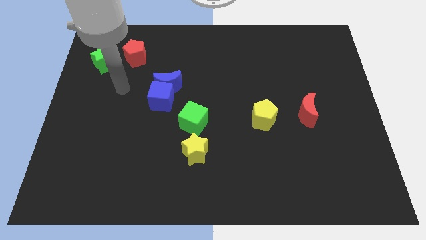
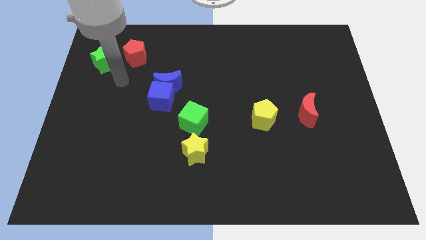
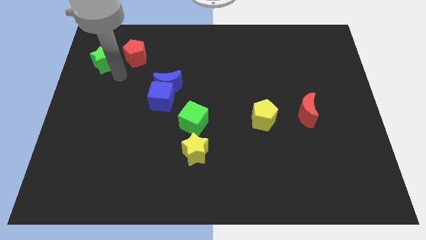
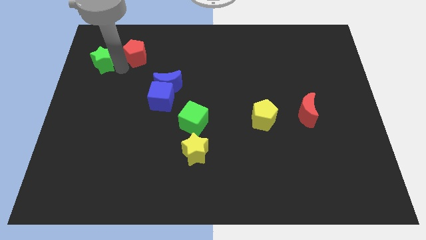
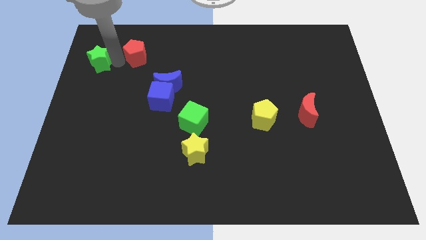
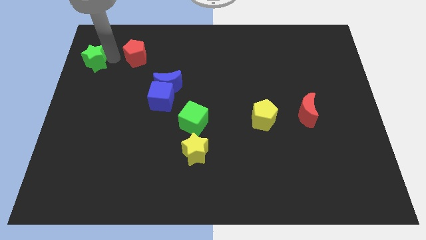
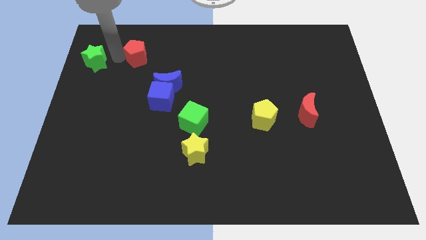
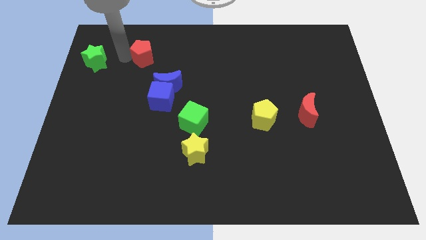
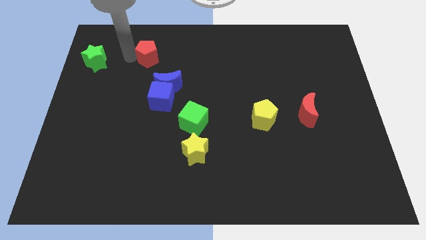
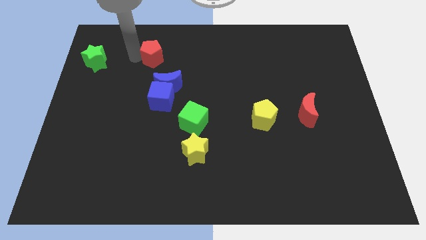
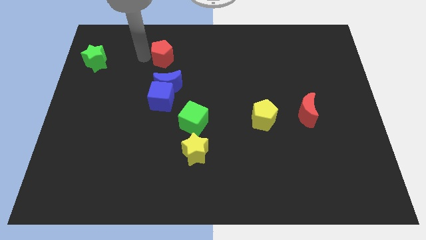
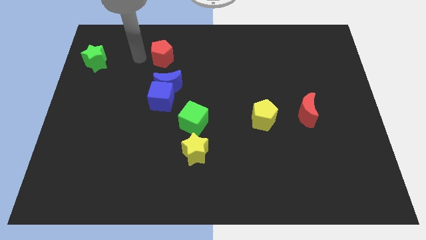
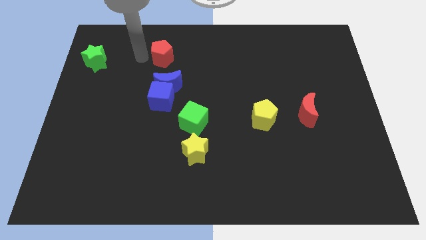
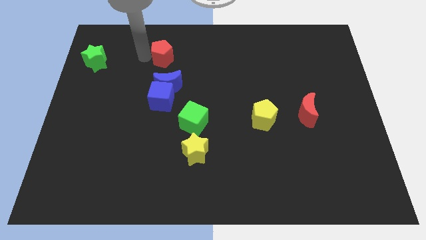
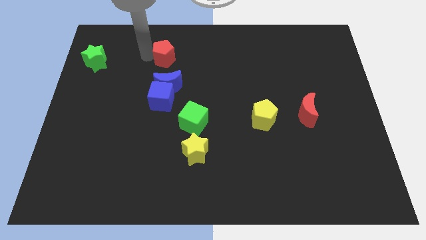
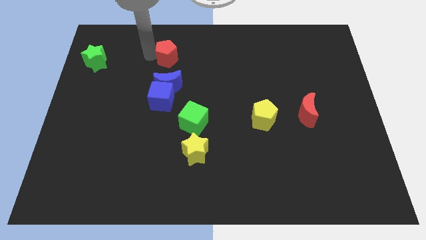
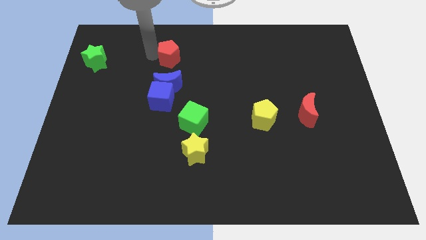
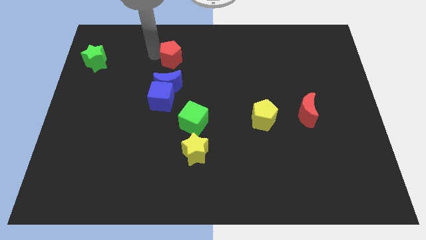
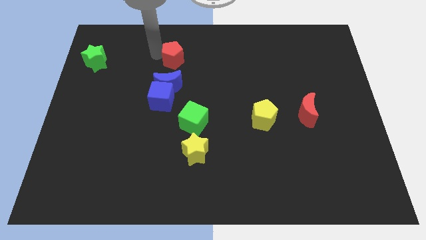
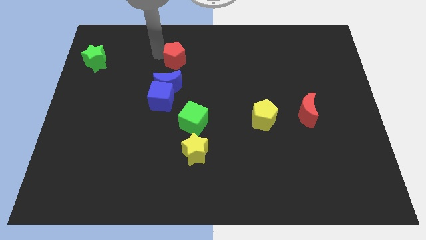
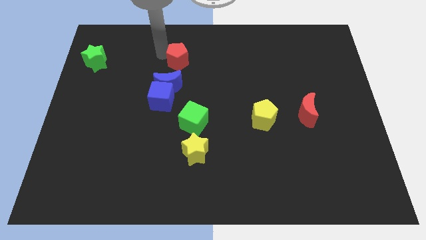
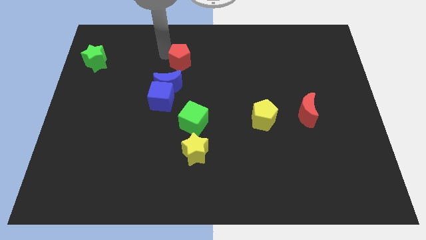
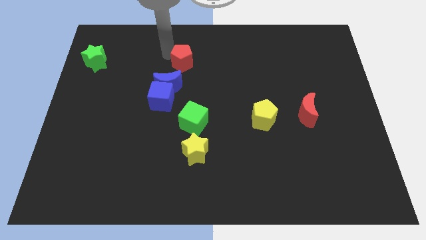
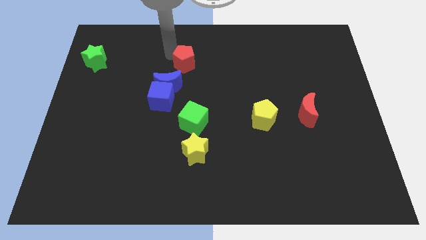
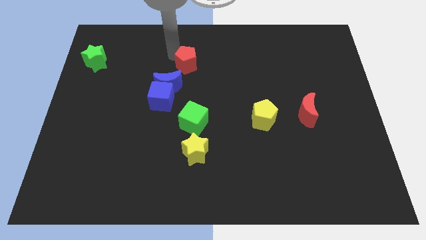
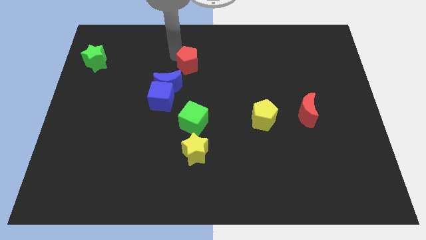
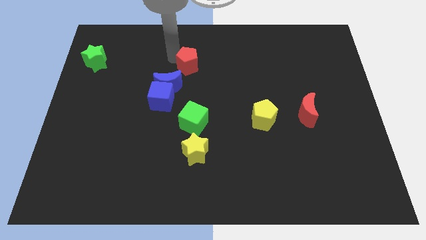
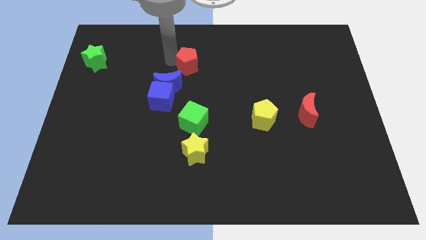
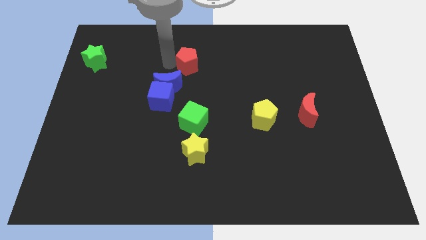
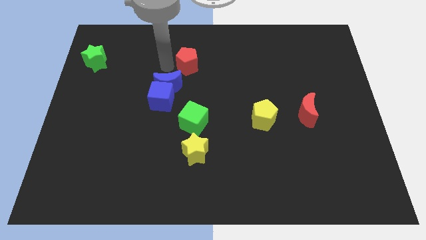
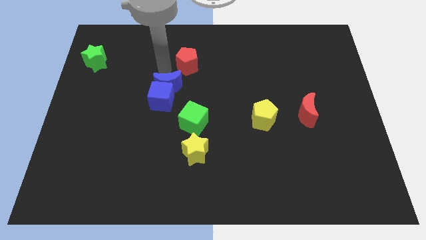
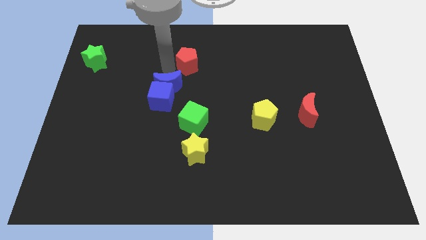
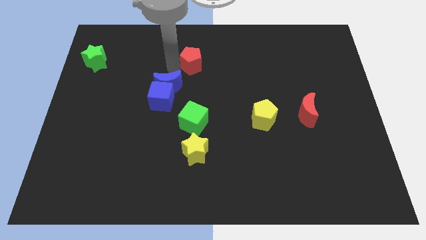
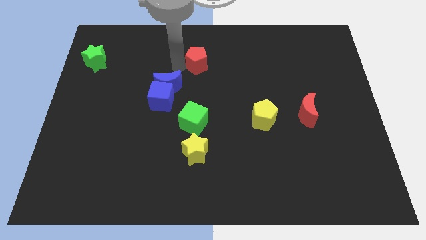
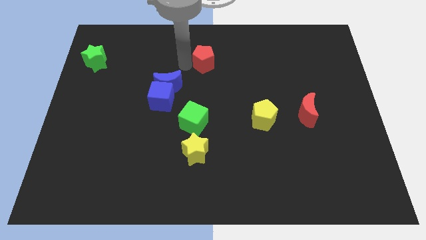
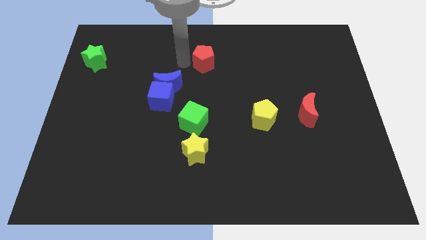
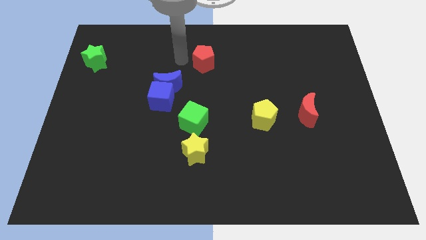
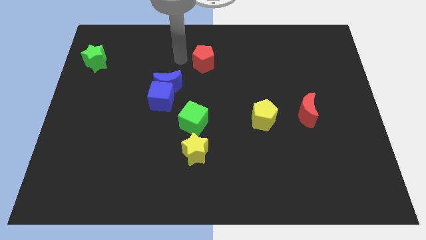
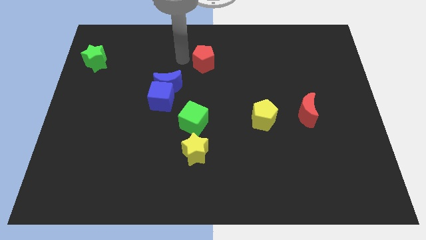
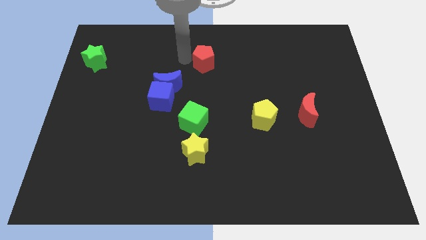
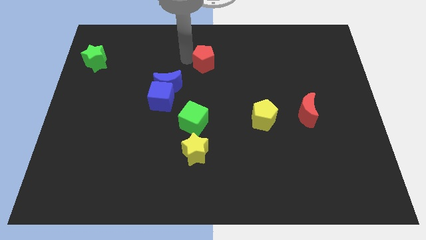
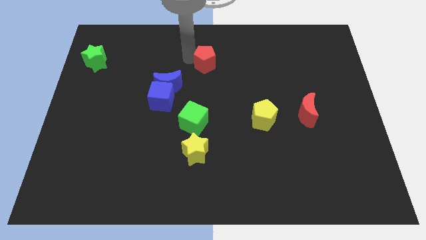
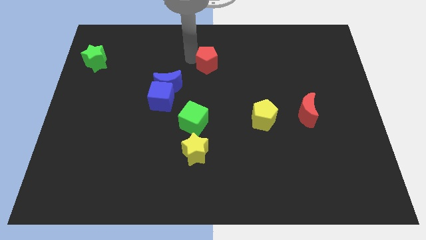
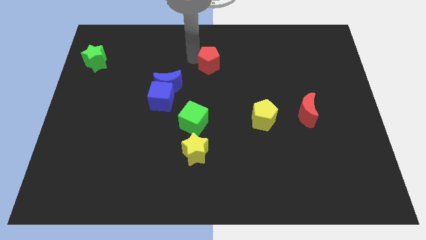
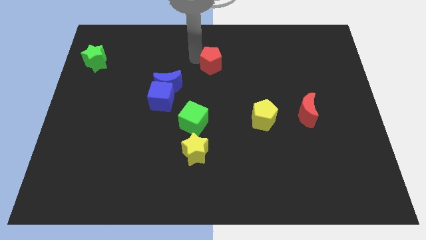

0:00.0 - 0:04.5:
push the red pentagon right

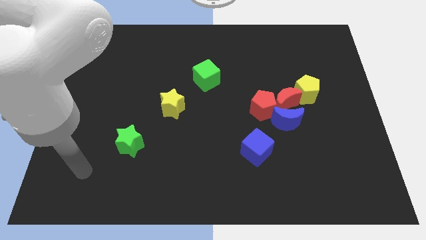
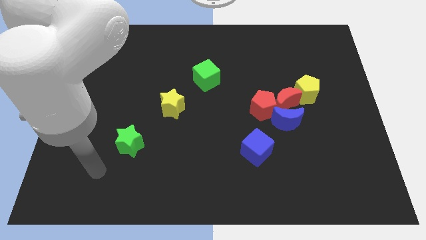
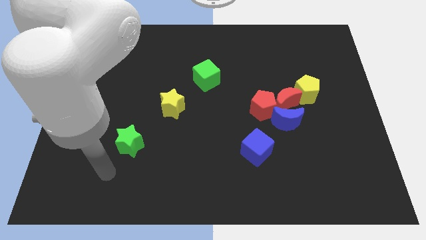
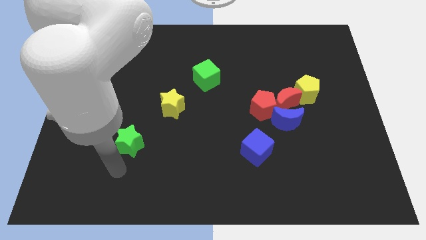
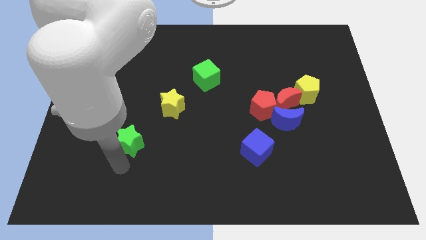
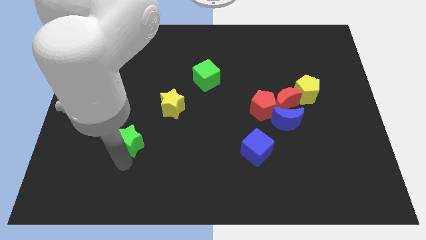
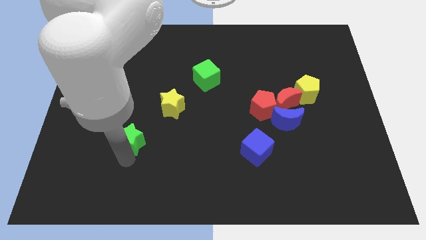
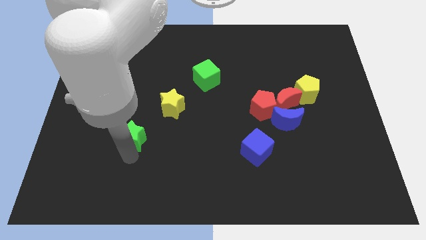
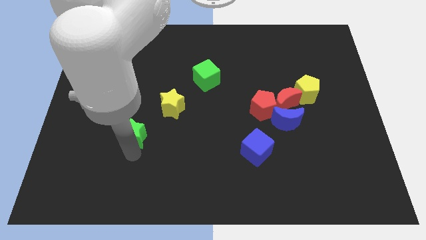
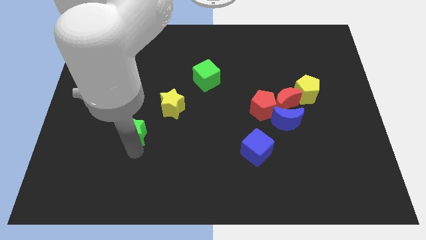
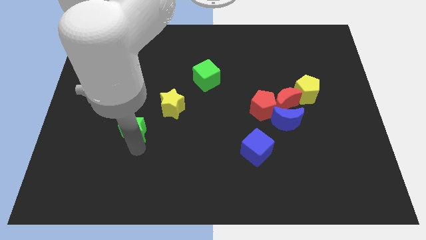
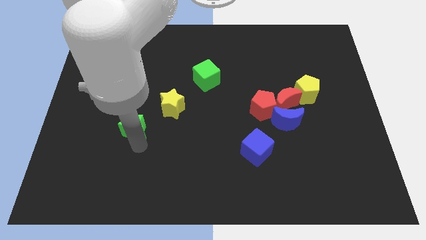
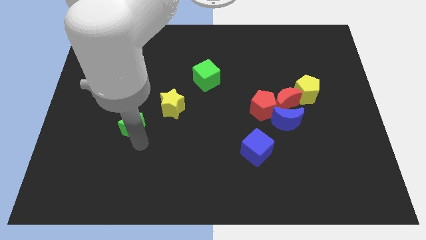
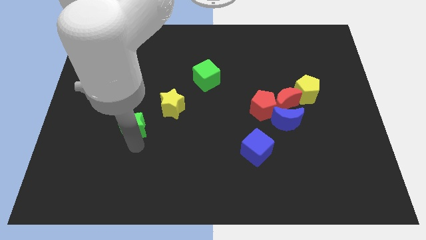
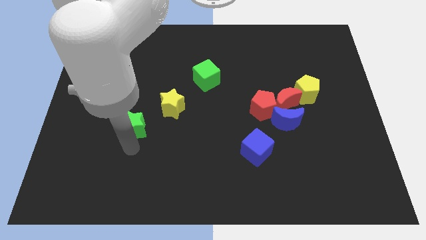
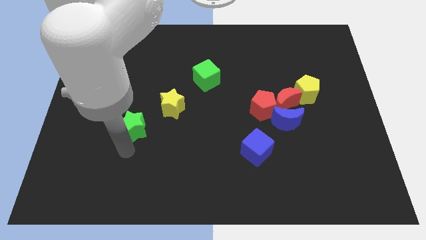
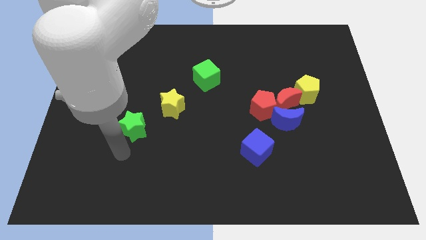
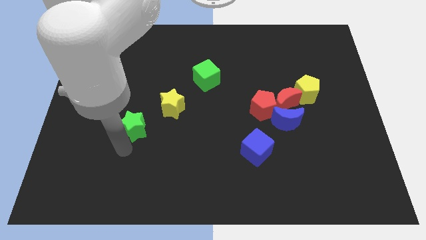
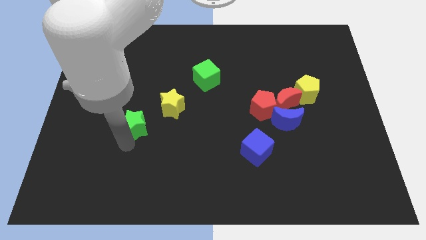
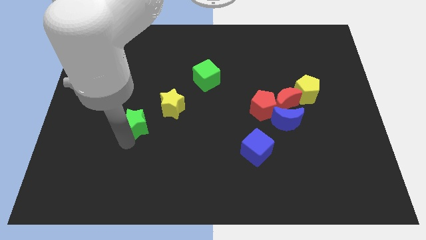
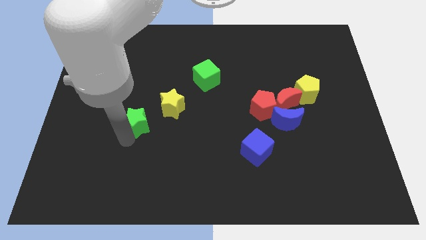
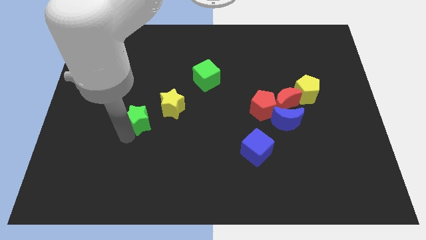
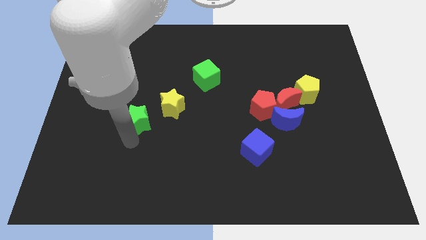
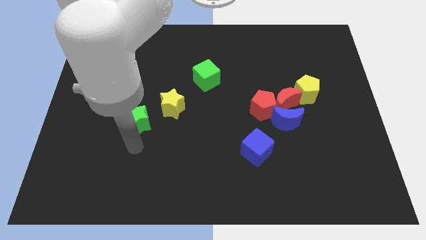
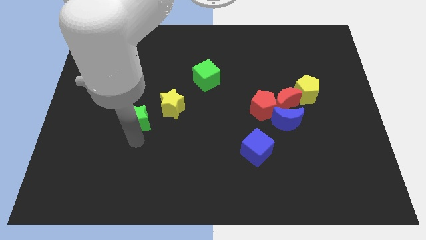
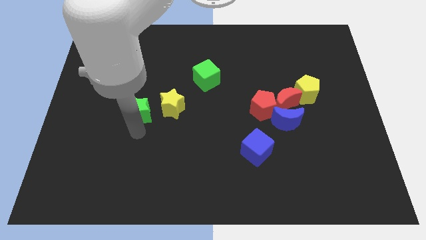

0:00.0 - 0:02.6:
move the green star upwards a little bit

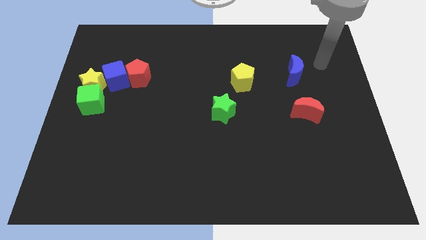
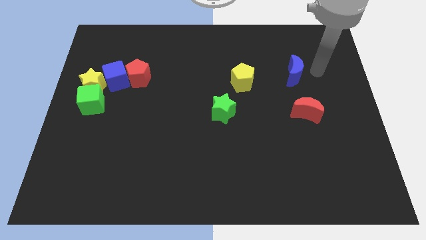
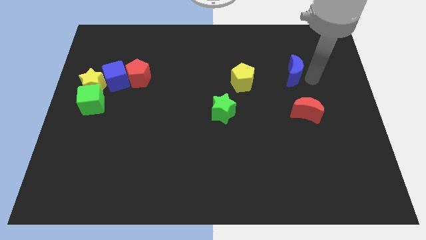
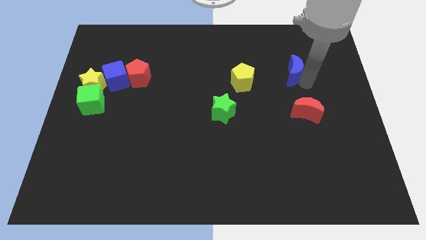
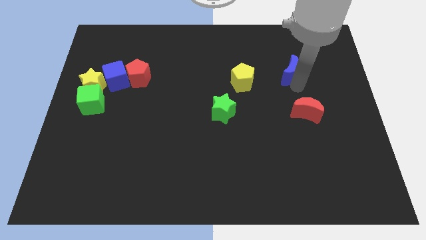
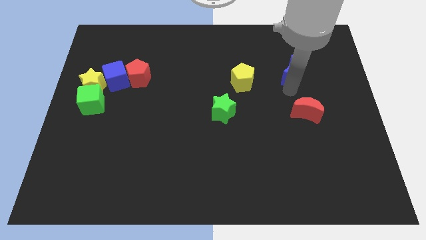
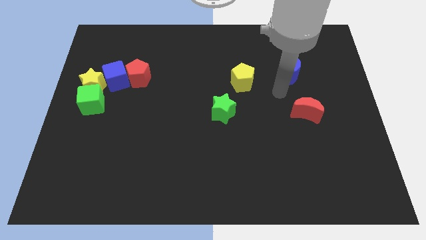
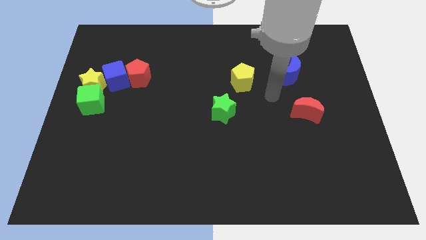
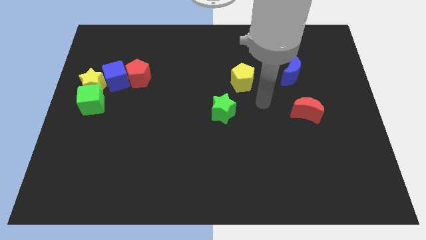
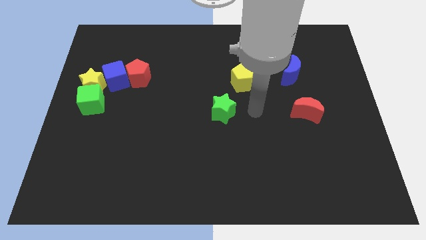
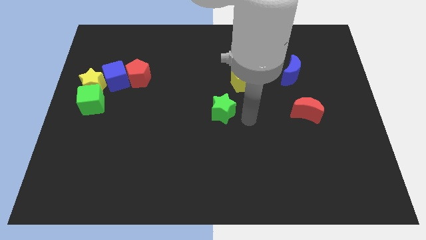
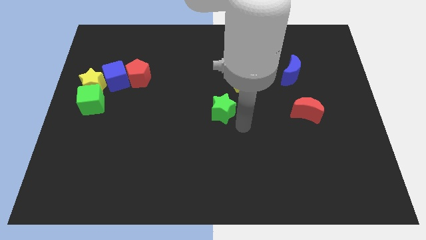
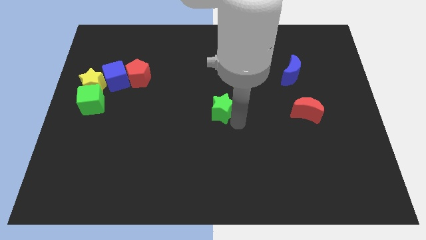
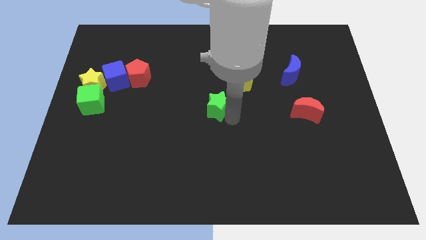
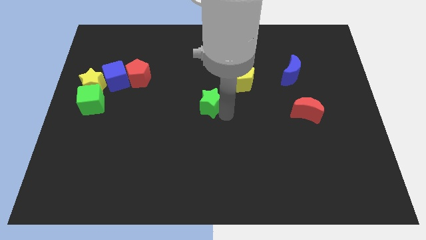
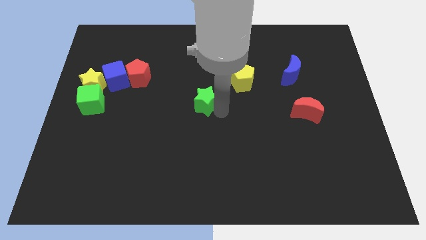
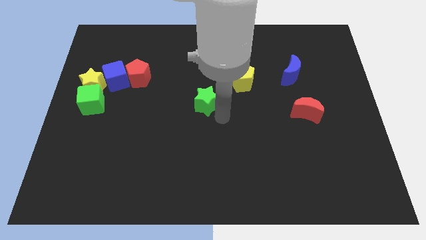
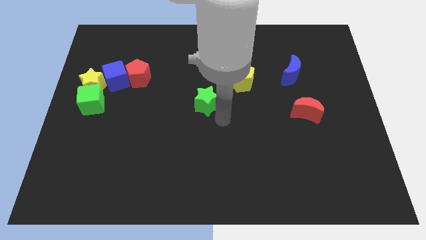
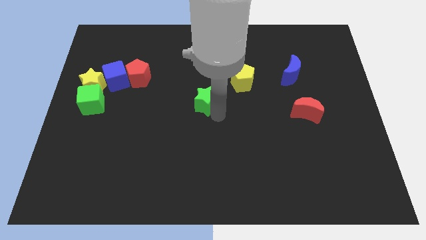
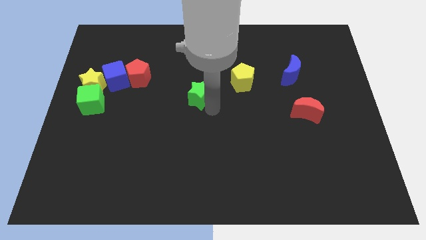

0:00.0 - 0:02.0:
slide the green star slightly diagonally up and to the left
